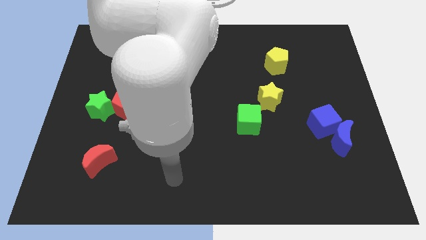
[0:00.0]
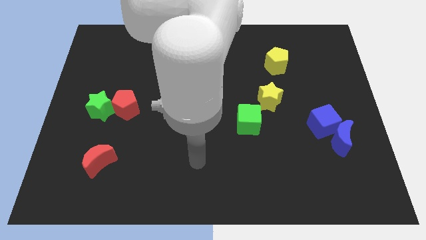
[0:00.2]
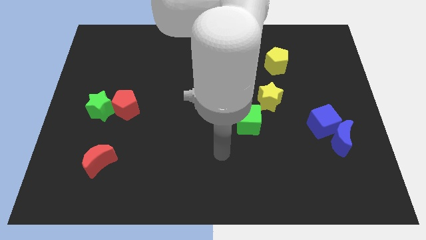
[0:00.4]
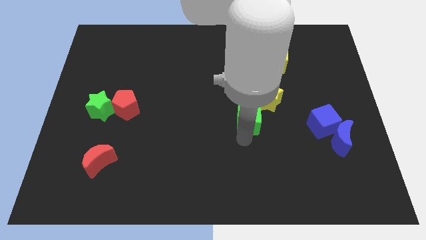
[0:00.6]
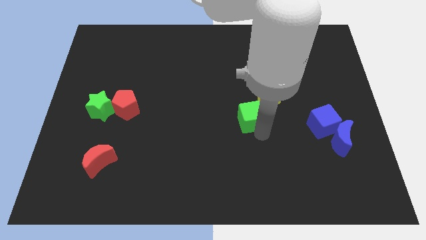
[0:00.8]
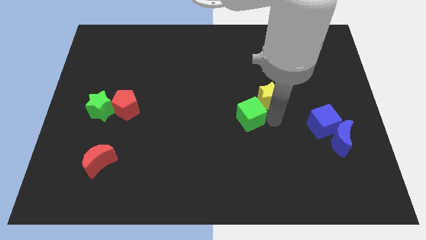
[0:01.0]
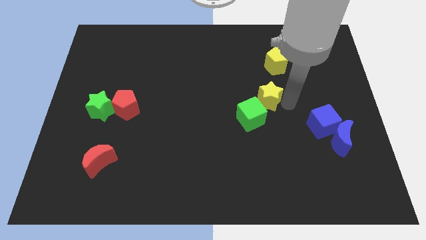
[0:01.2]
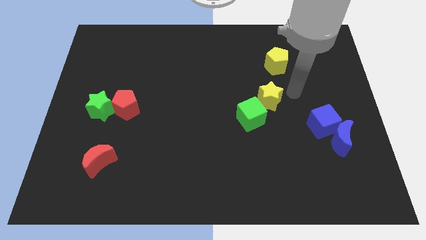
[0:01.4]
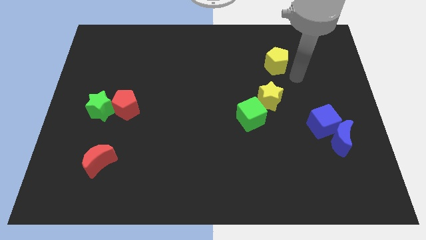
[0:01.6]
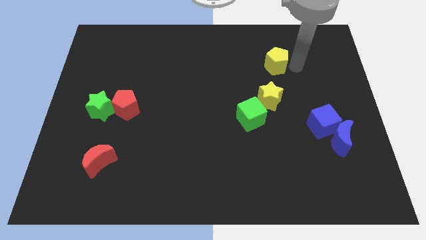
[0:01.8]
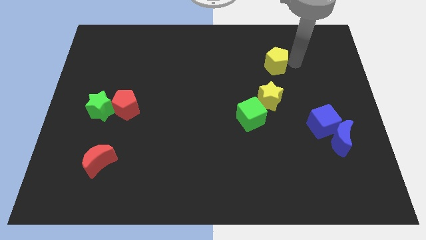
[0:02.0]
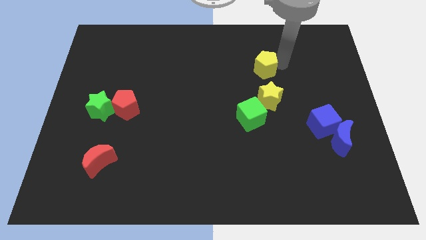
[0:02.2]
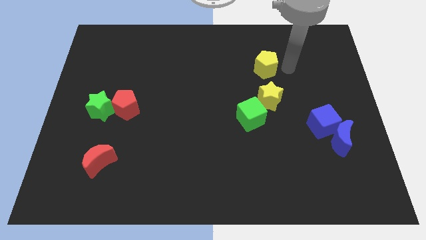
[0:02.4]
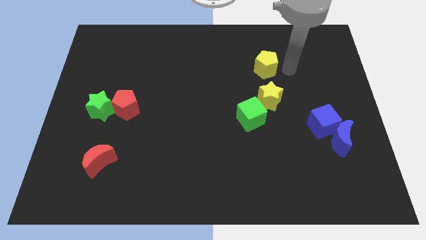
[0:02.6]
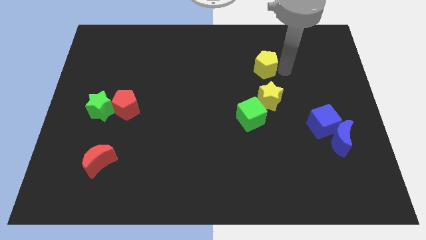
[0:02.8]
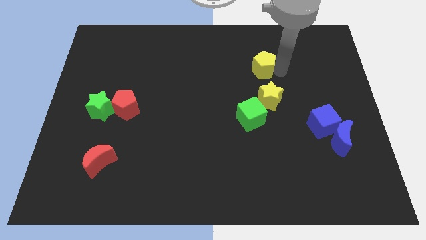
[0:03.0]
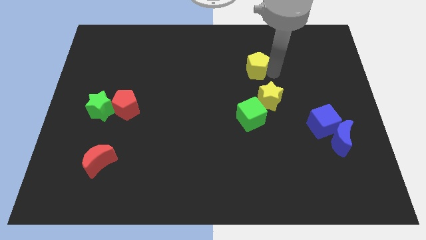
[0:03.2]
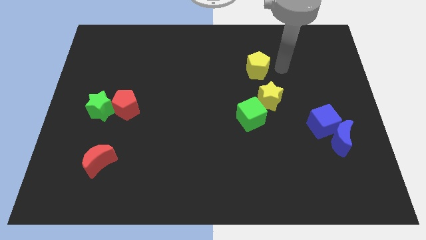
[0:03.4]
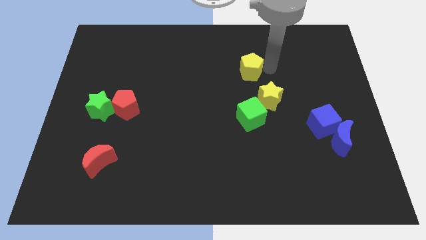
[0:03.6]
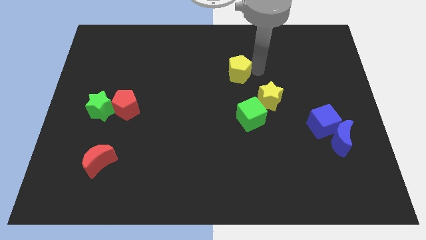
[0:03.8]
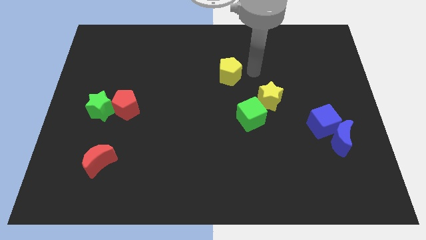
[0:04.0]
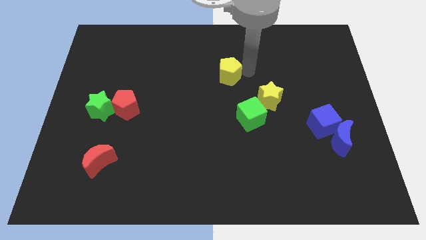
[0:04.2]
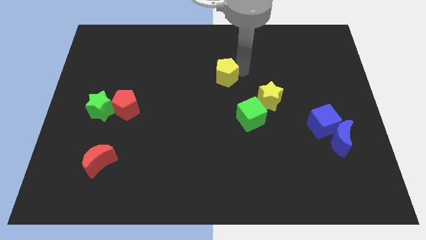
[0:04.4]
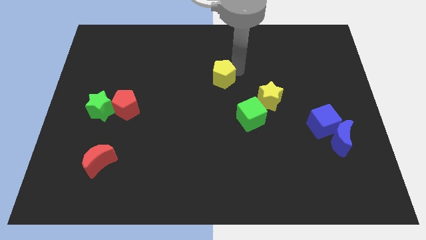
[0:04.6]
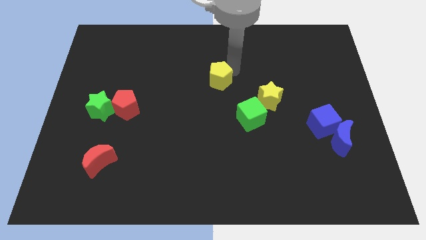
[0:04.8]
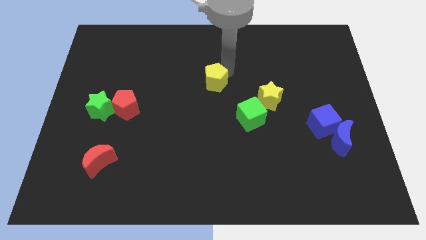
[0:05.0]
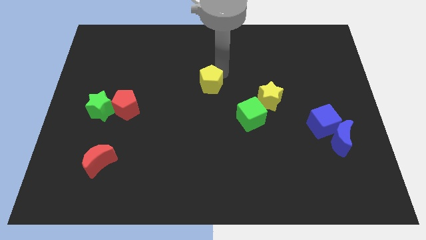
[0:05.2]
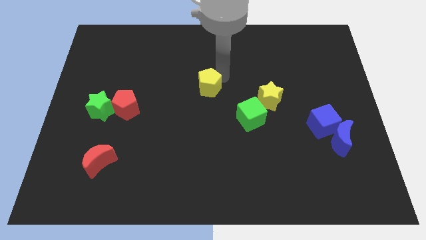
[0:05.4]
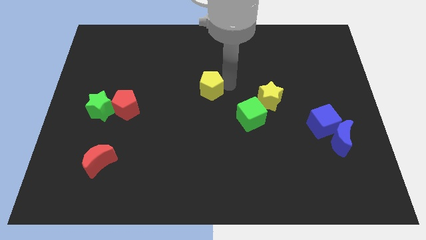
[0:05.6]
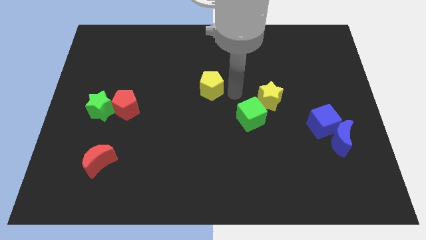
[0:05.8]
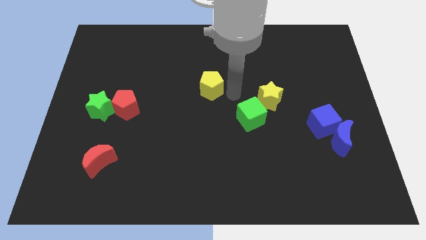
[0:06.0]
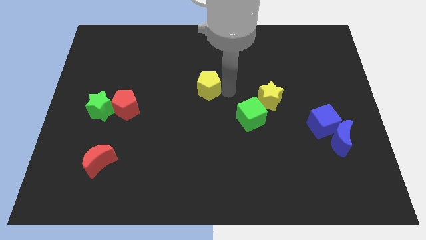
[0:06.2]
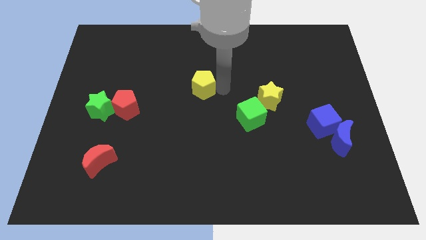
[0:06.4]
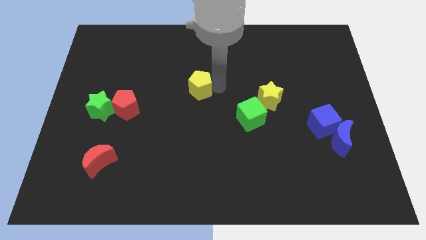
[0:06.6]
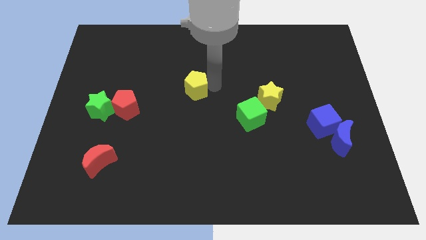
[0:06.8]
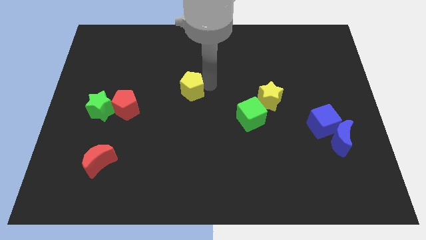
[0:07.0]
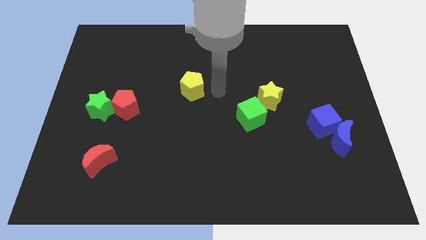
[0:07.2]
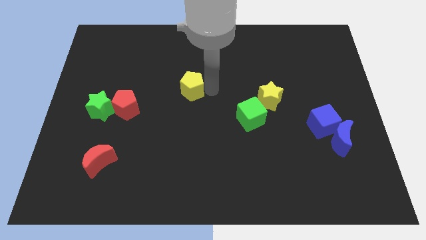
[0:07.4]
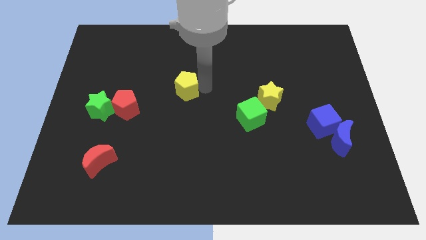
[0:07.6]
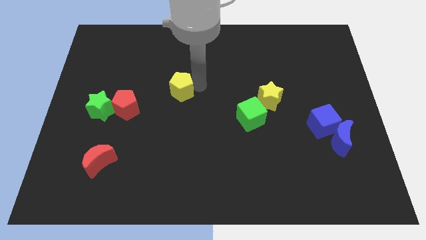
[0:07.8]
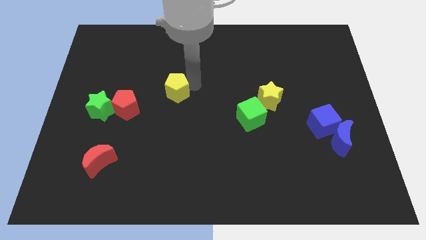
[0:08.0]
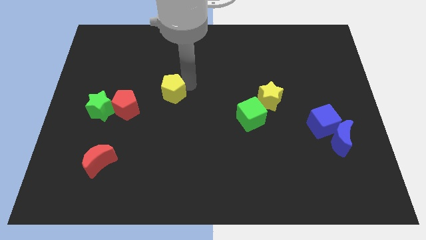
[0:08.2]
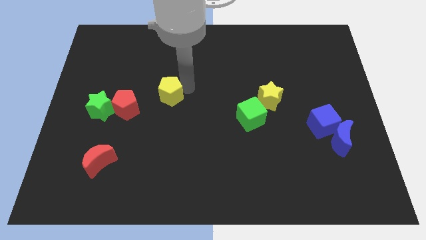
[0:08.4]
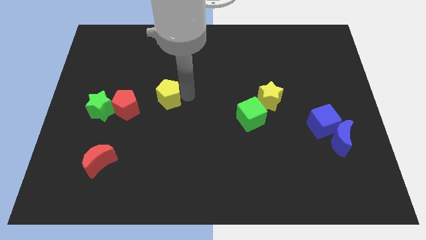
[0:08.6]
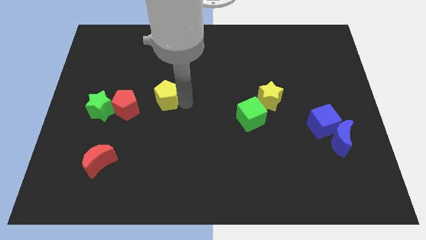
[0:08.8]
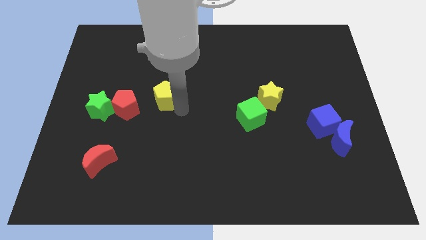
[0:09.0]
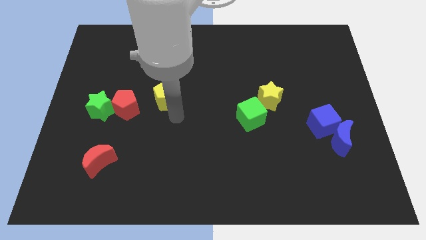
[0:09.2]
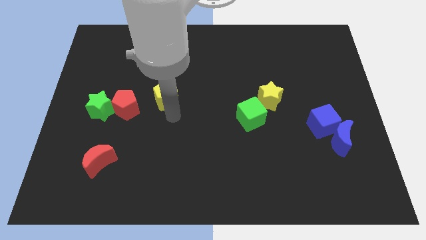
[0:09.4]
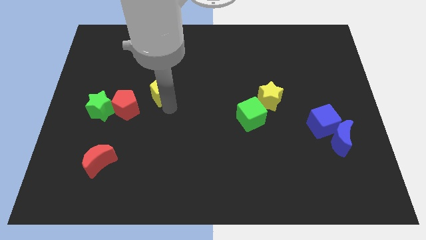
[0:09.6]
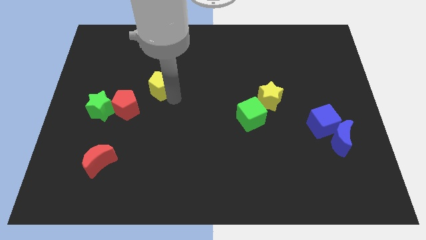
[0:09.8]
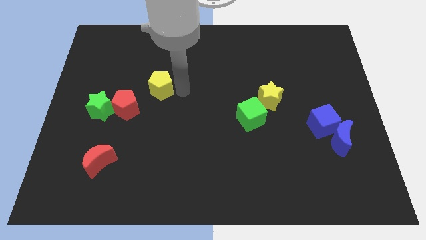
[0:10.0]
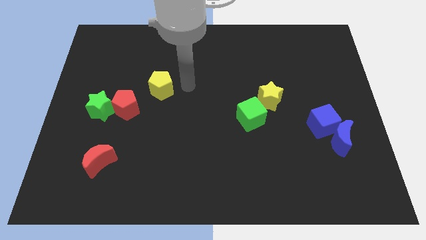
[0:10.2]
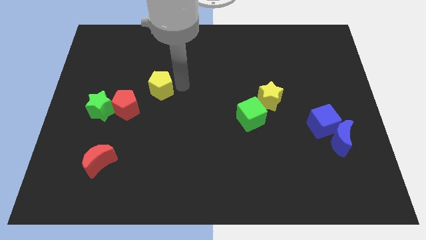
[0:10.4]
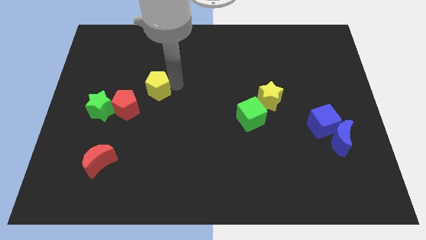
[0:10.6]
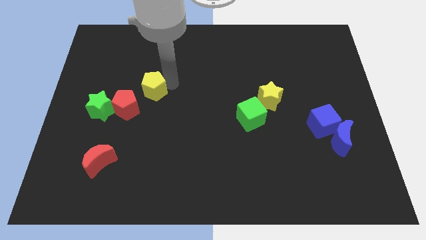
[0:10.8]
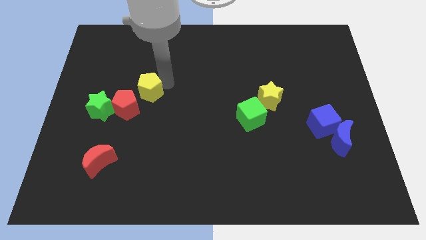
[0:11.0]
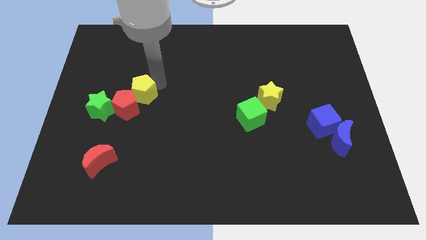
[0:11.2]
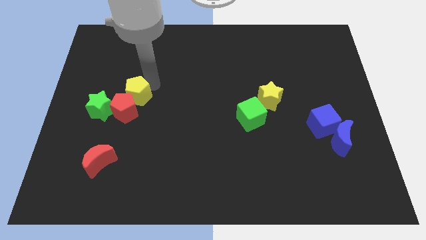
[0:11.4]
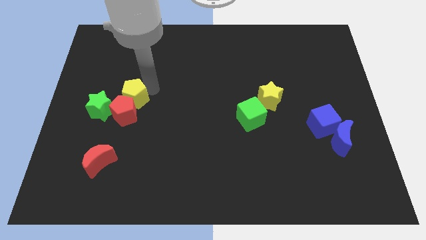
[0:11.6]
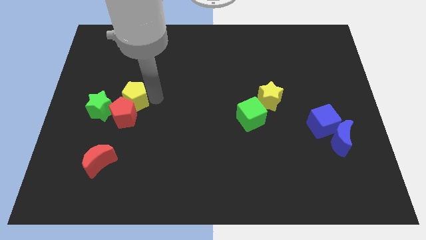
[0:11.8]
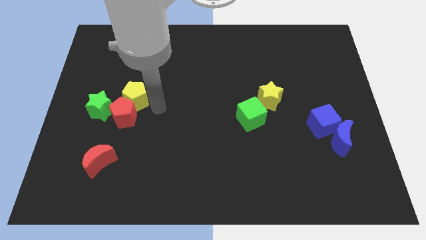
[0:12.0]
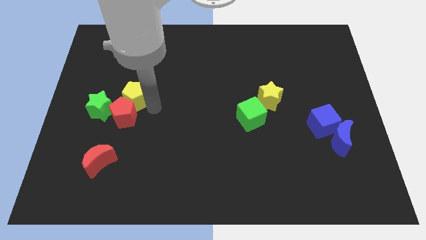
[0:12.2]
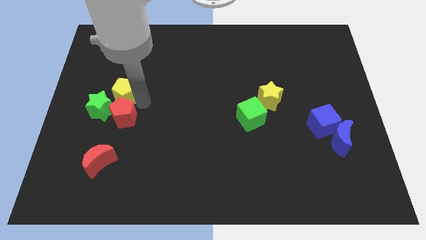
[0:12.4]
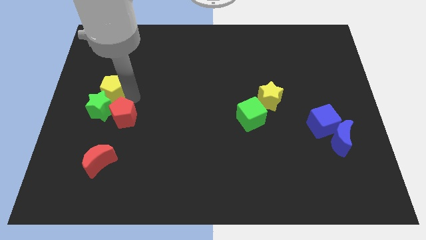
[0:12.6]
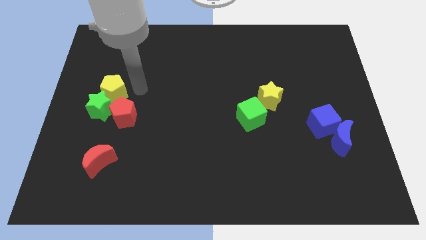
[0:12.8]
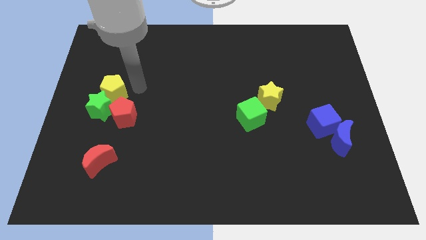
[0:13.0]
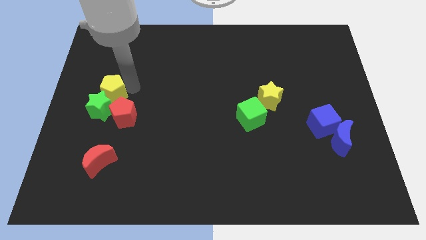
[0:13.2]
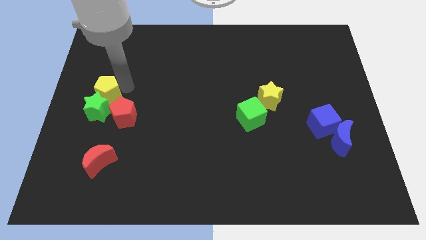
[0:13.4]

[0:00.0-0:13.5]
slide the yellow pentagon to the left side of the board
